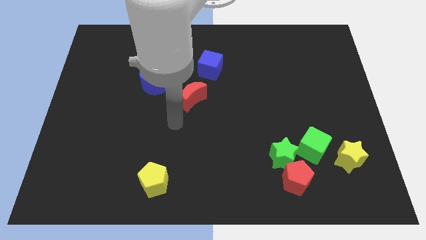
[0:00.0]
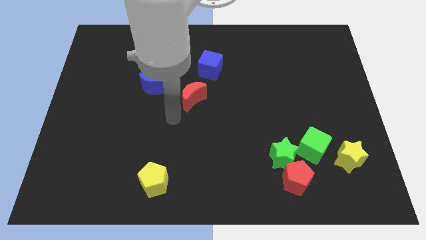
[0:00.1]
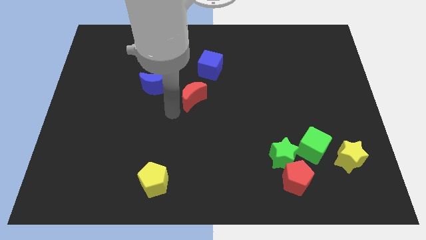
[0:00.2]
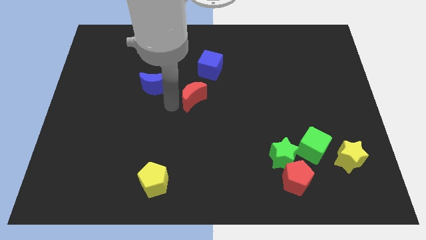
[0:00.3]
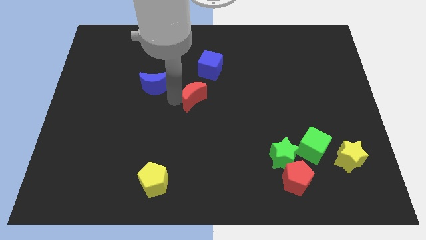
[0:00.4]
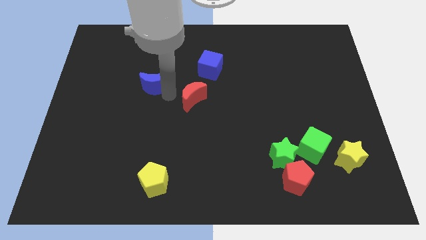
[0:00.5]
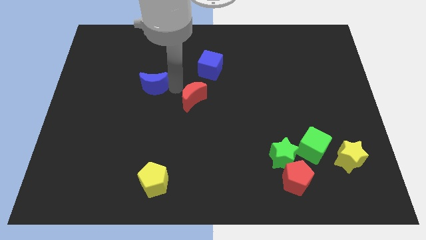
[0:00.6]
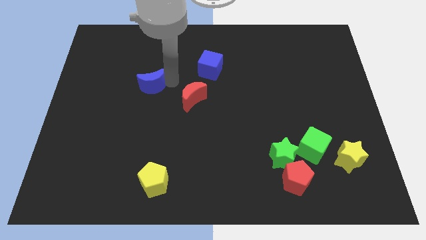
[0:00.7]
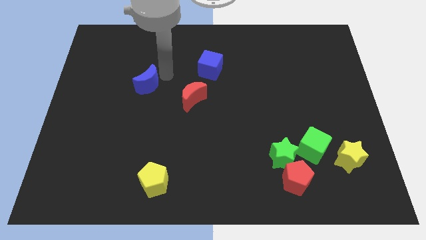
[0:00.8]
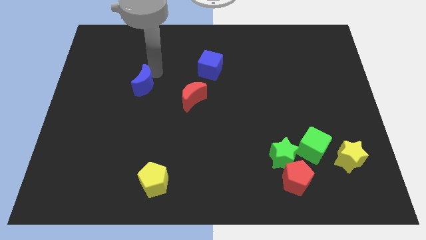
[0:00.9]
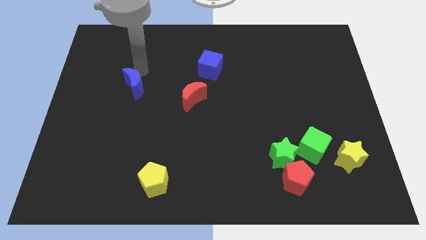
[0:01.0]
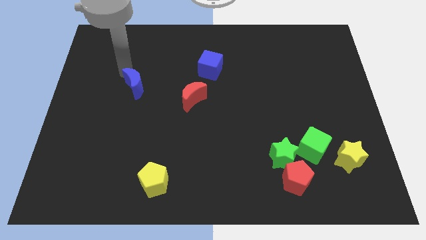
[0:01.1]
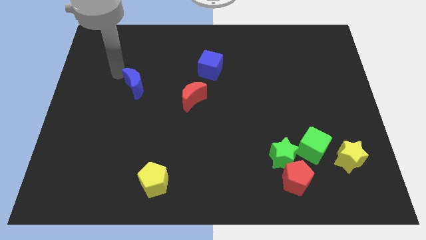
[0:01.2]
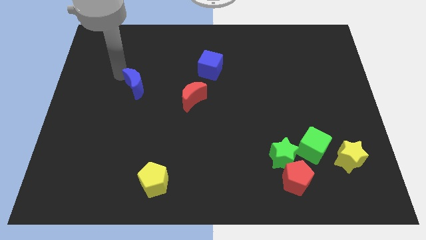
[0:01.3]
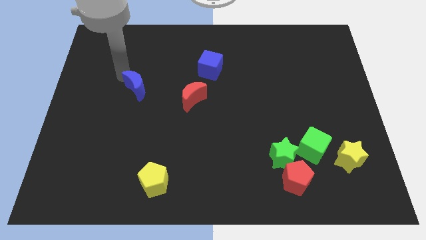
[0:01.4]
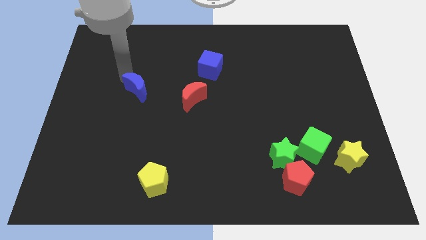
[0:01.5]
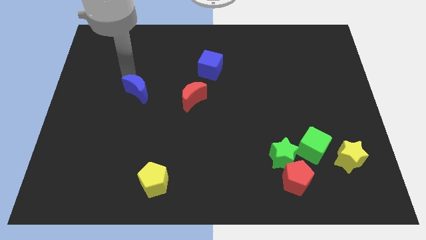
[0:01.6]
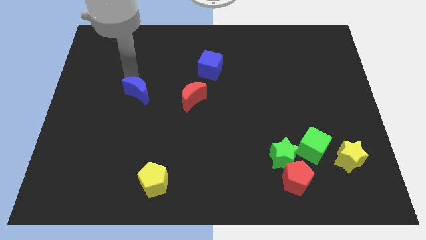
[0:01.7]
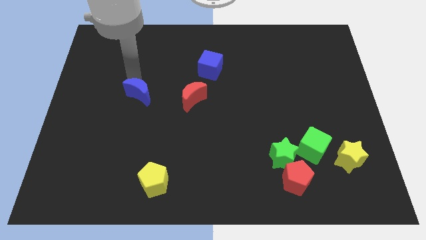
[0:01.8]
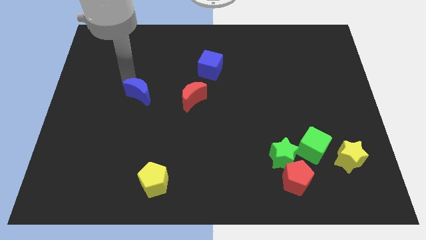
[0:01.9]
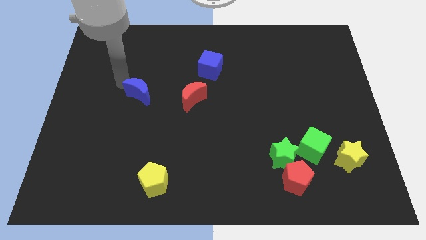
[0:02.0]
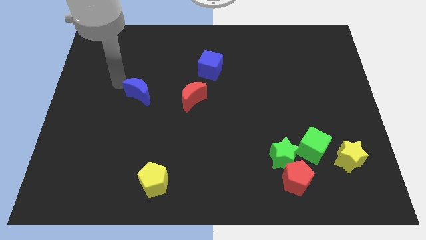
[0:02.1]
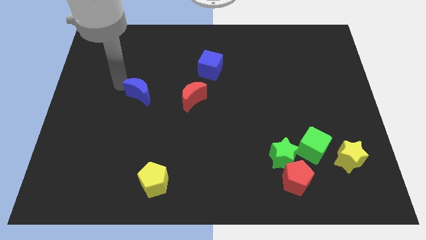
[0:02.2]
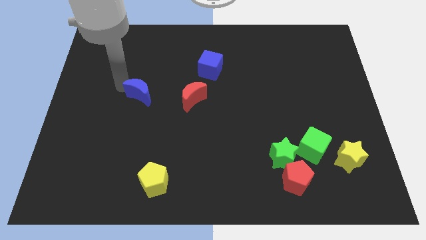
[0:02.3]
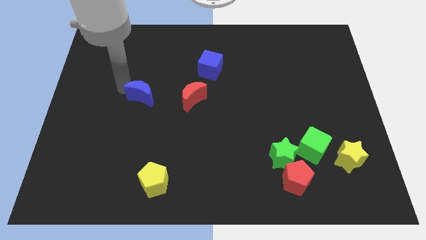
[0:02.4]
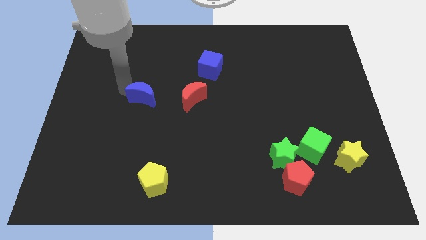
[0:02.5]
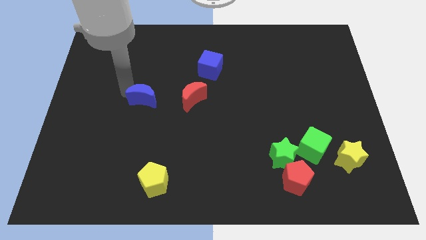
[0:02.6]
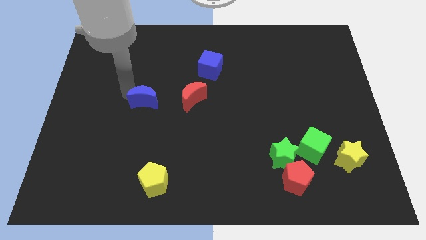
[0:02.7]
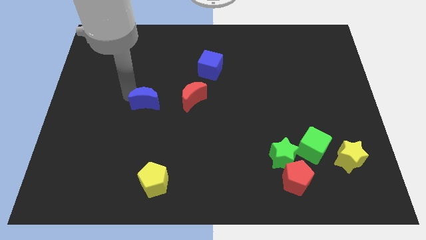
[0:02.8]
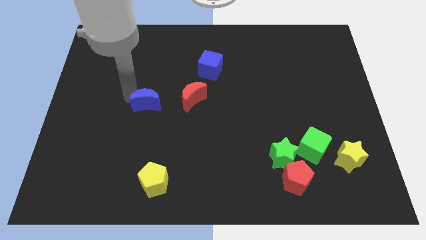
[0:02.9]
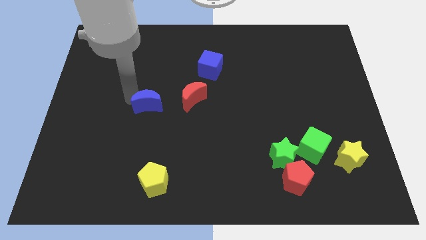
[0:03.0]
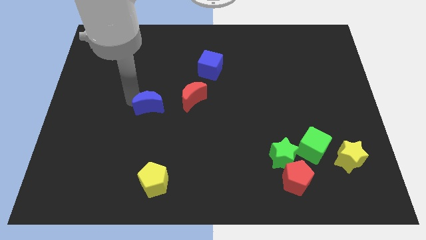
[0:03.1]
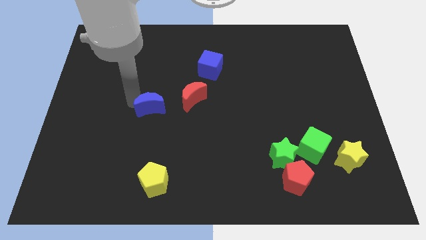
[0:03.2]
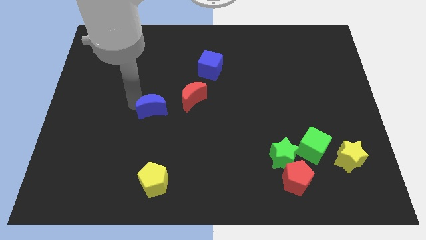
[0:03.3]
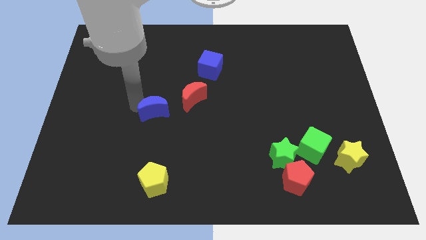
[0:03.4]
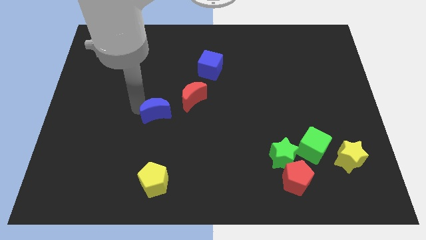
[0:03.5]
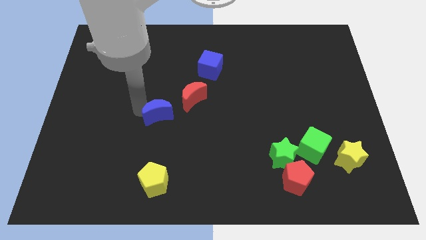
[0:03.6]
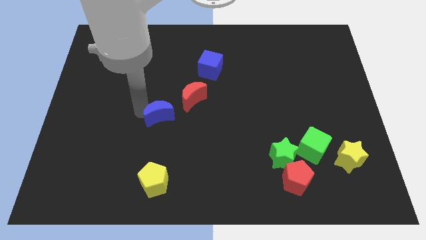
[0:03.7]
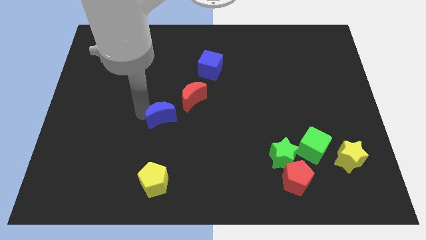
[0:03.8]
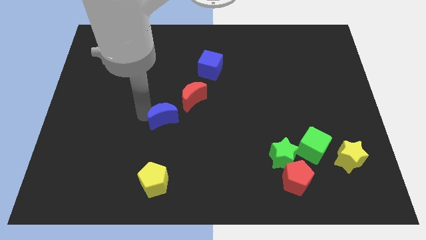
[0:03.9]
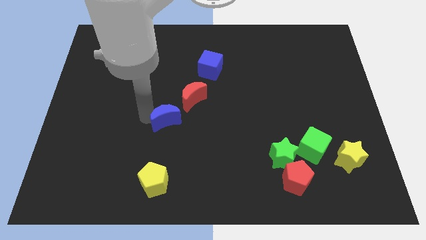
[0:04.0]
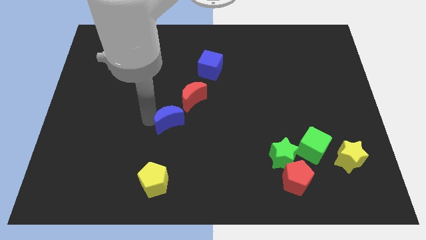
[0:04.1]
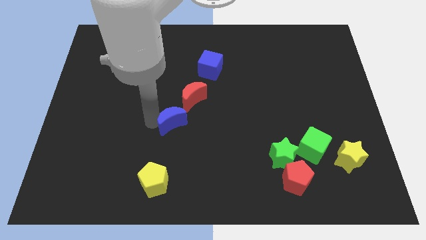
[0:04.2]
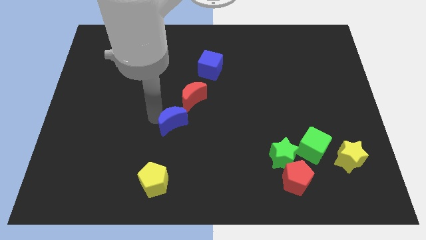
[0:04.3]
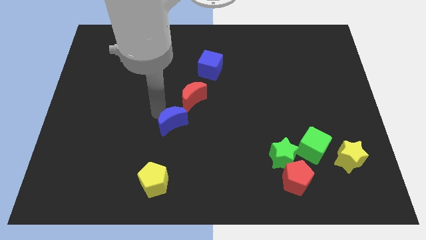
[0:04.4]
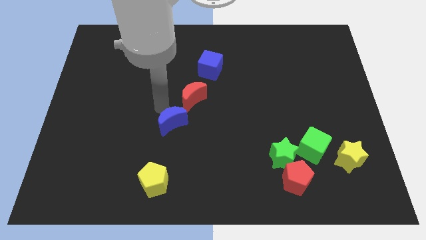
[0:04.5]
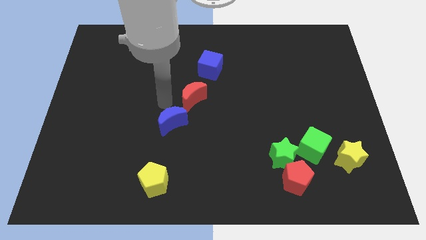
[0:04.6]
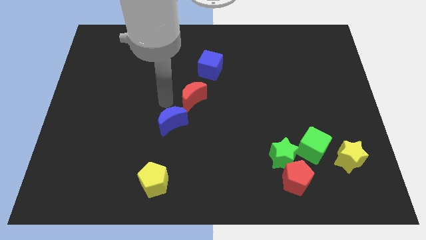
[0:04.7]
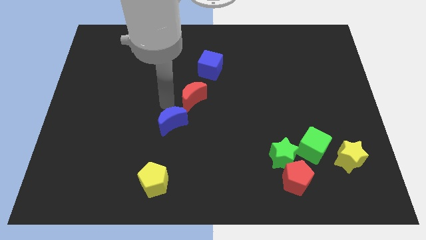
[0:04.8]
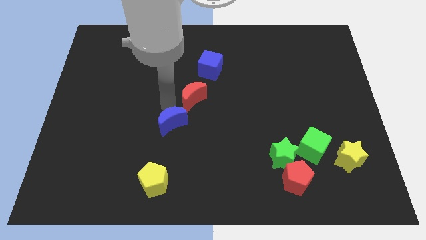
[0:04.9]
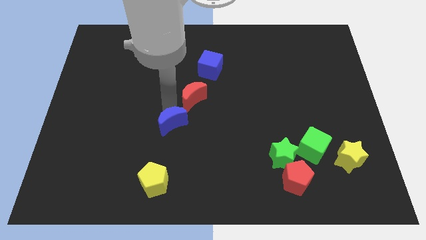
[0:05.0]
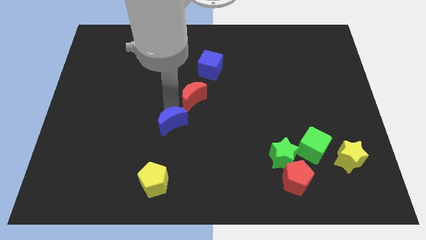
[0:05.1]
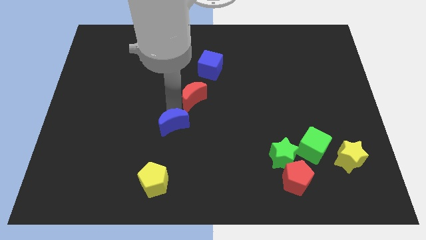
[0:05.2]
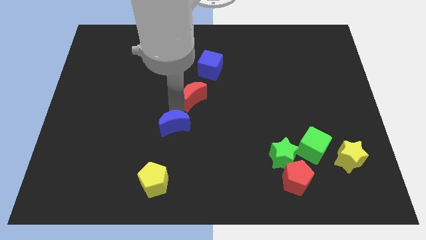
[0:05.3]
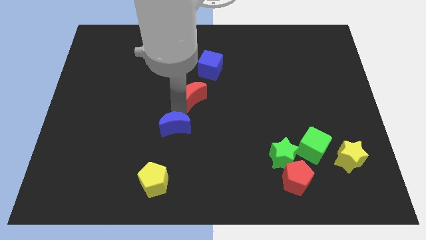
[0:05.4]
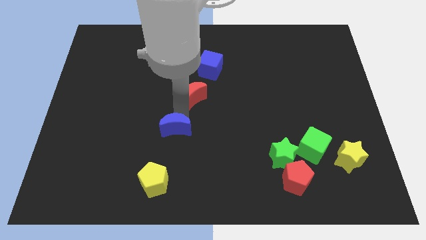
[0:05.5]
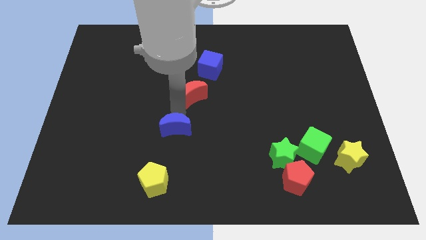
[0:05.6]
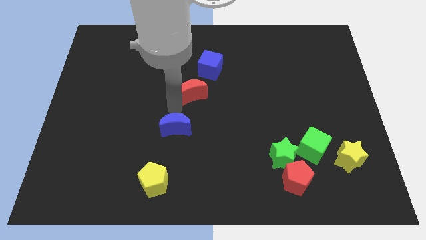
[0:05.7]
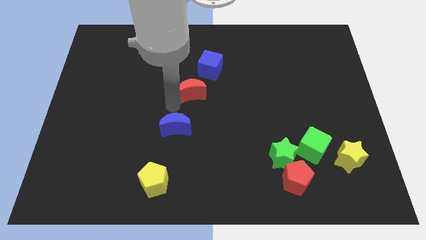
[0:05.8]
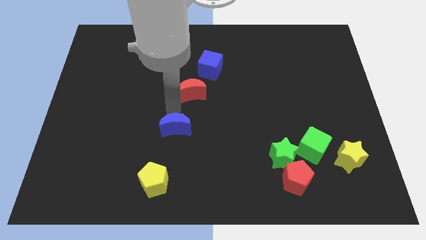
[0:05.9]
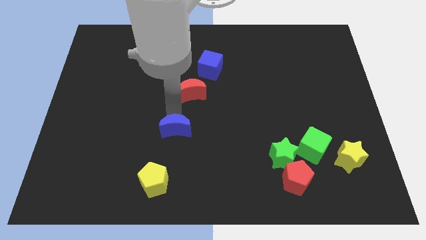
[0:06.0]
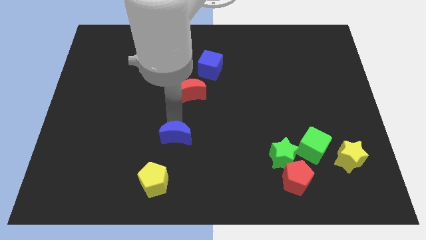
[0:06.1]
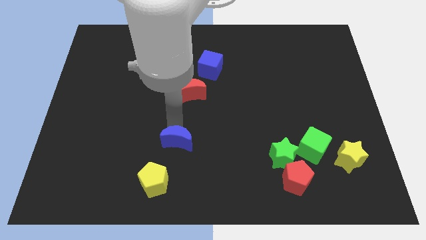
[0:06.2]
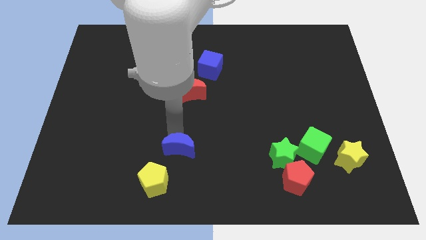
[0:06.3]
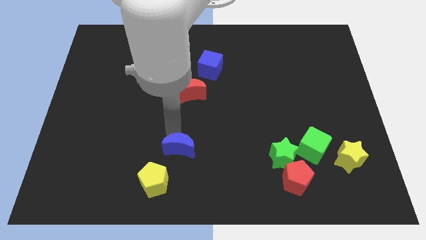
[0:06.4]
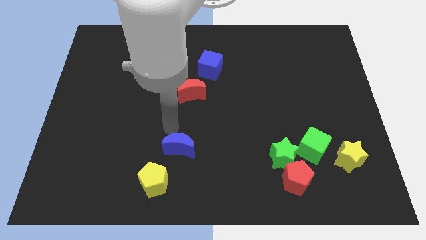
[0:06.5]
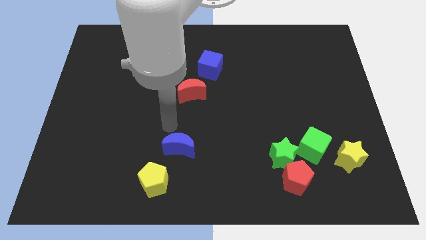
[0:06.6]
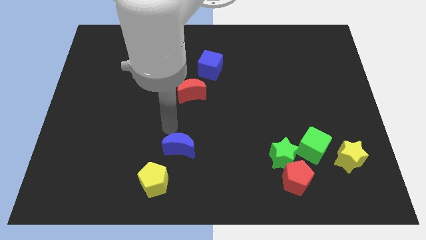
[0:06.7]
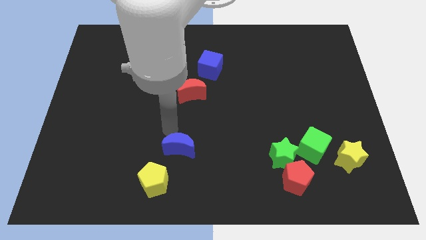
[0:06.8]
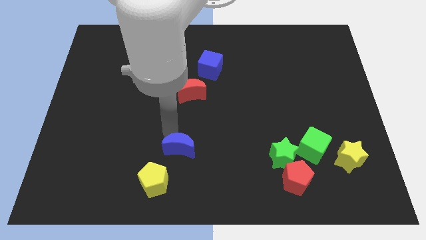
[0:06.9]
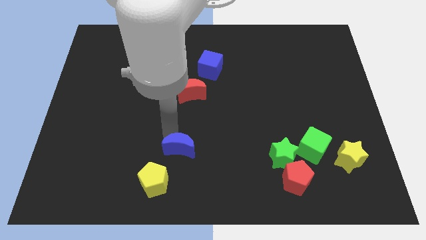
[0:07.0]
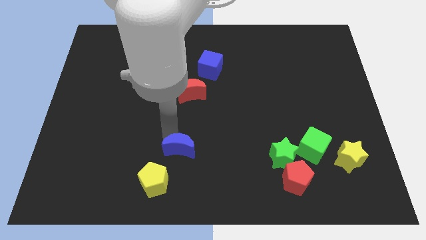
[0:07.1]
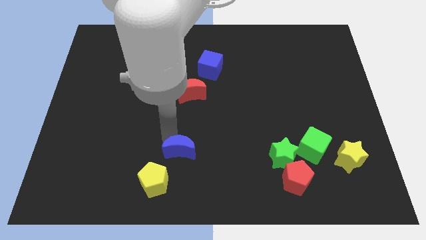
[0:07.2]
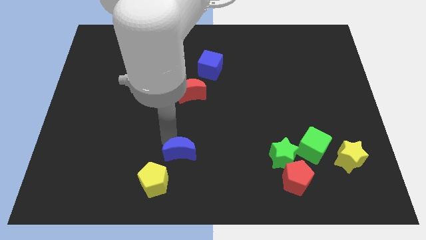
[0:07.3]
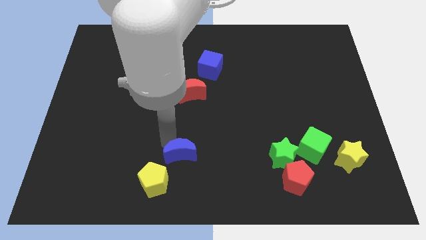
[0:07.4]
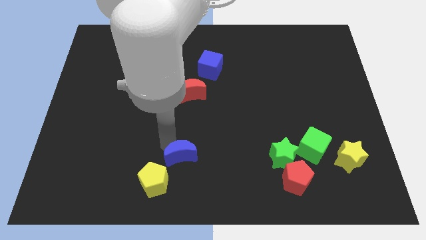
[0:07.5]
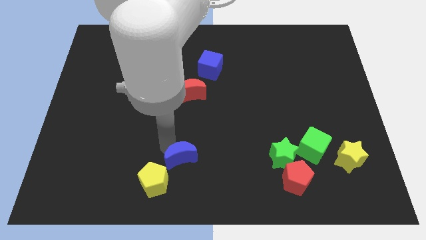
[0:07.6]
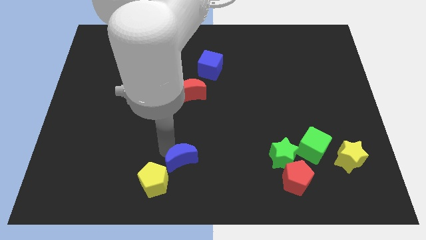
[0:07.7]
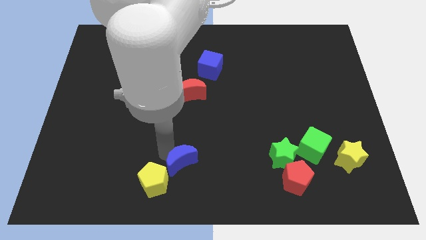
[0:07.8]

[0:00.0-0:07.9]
move the blue moon to the bottom side
